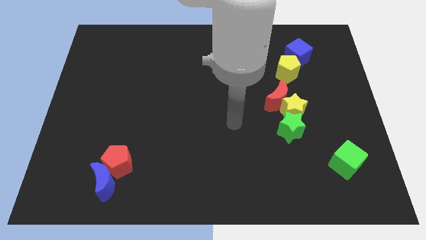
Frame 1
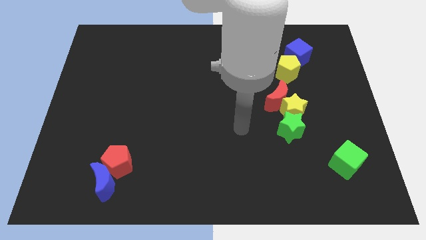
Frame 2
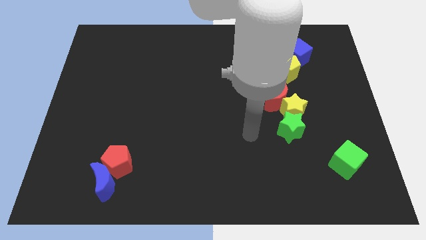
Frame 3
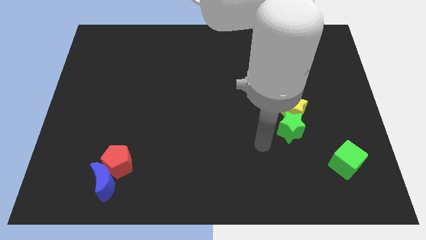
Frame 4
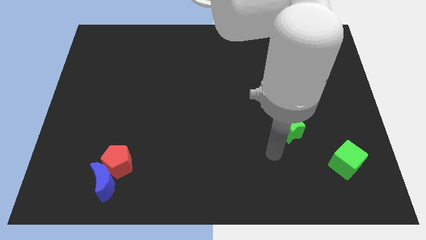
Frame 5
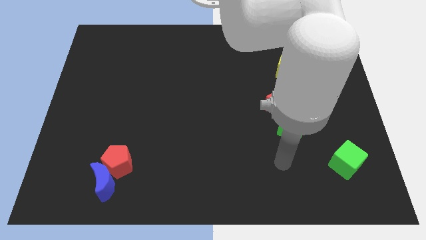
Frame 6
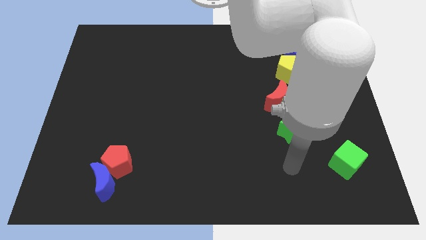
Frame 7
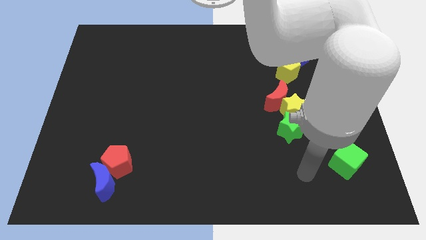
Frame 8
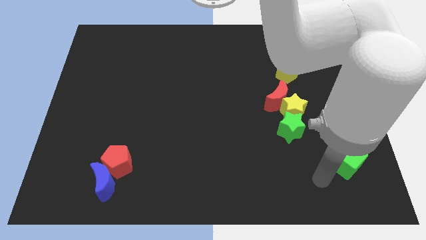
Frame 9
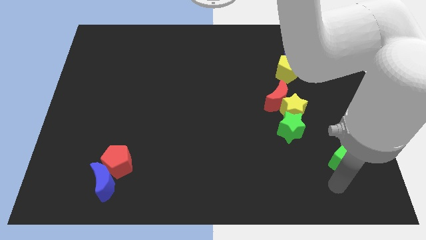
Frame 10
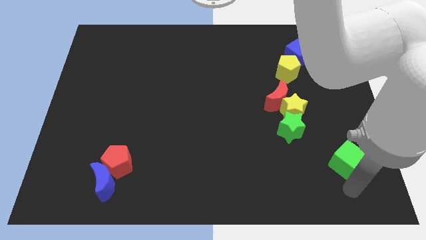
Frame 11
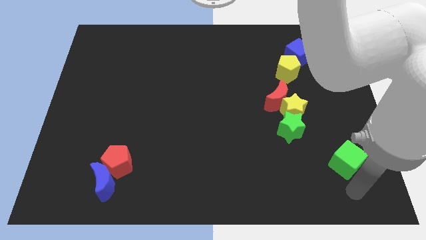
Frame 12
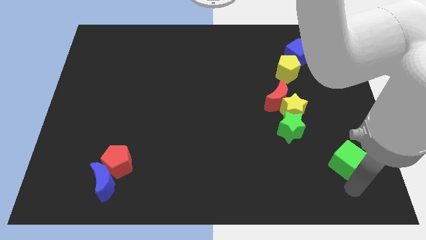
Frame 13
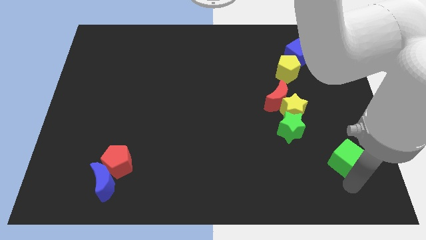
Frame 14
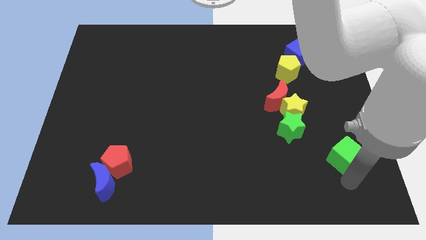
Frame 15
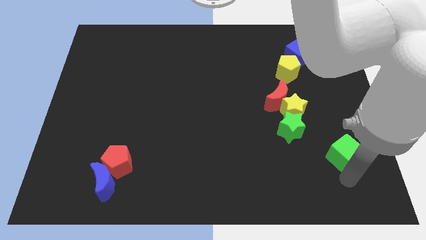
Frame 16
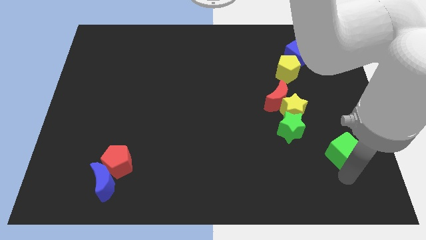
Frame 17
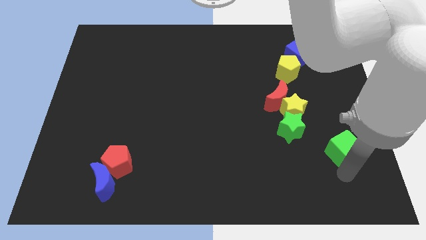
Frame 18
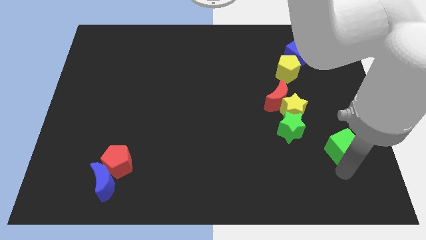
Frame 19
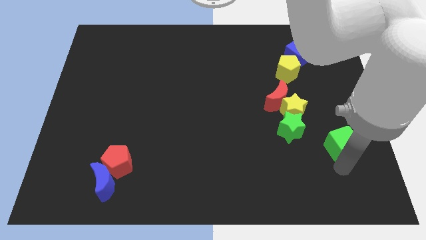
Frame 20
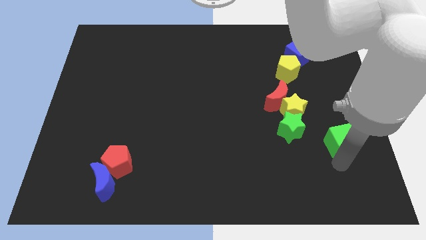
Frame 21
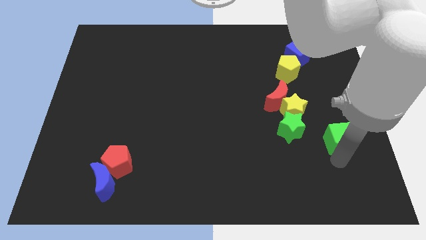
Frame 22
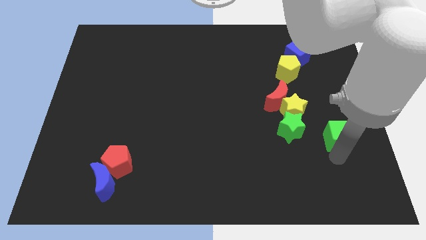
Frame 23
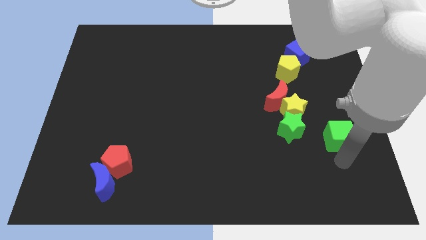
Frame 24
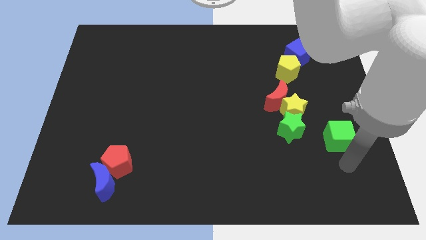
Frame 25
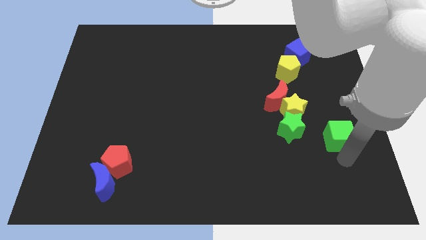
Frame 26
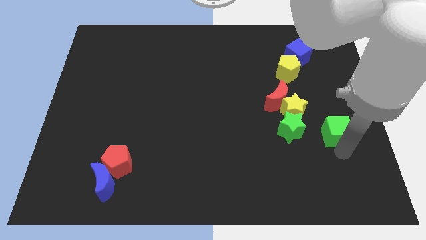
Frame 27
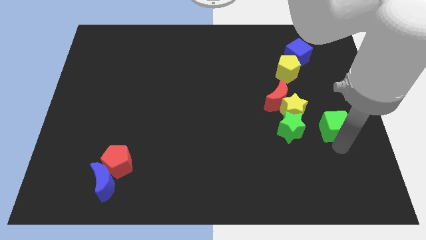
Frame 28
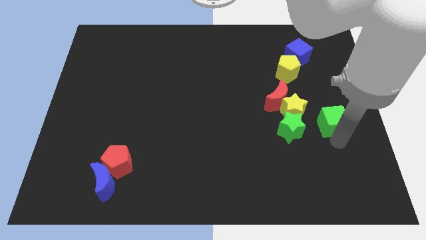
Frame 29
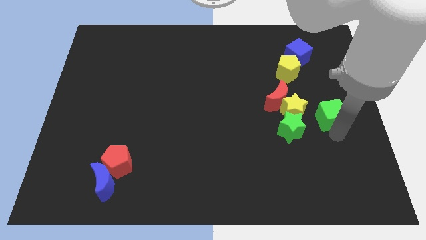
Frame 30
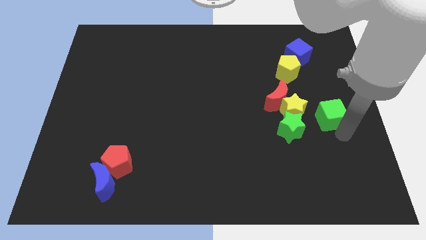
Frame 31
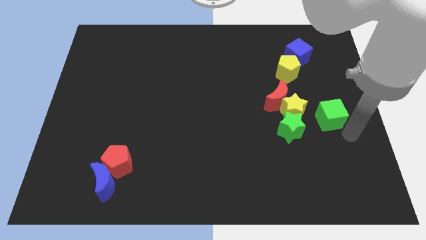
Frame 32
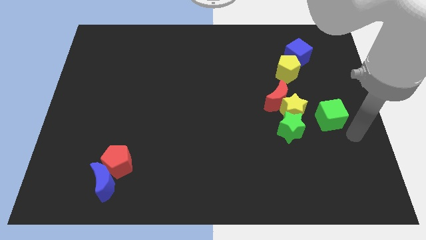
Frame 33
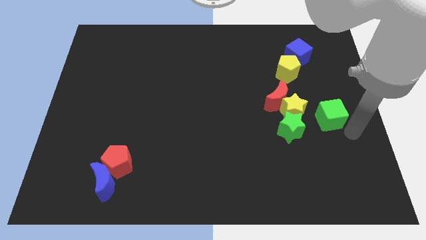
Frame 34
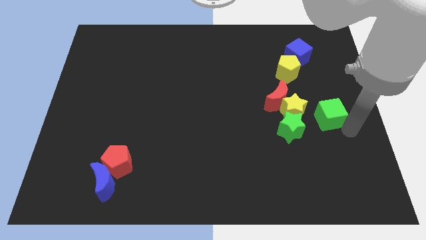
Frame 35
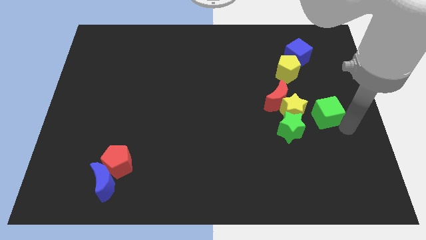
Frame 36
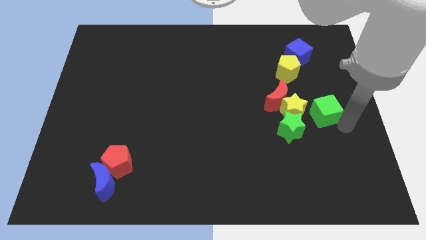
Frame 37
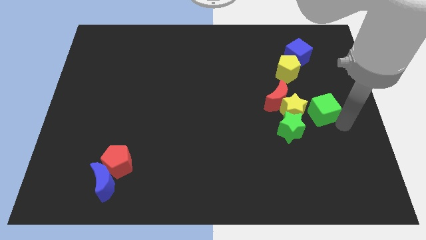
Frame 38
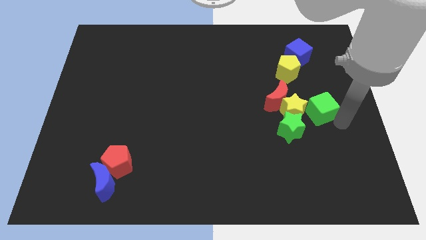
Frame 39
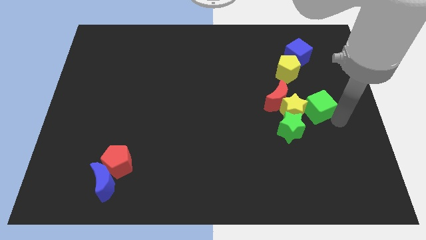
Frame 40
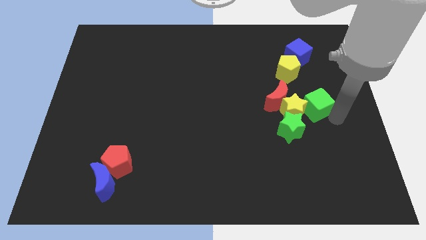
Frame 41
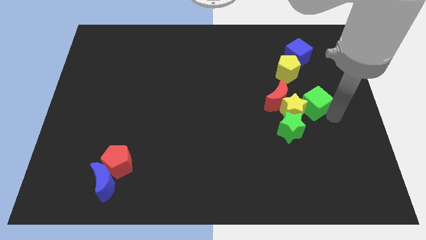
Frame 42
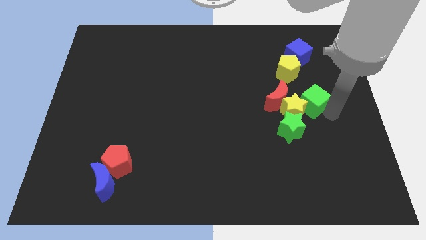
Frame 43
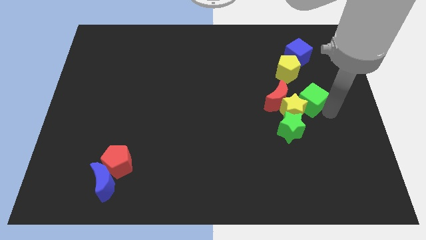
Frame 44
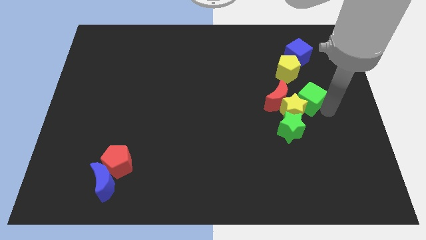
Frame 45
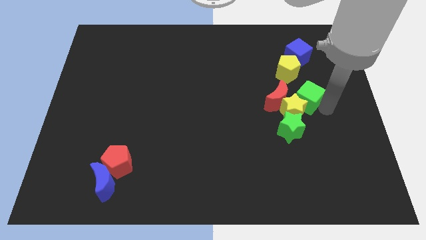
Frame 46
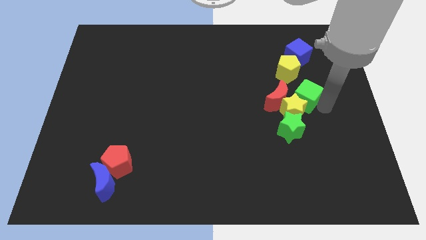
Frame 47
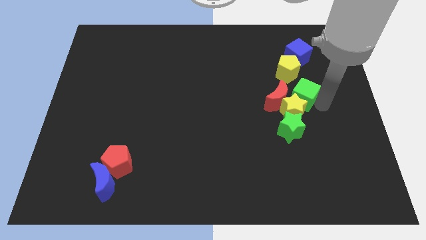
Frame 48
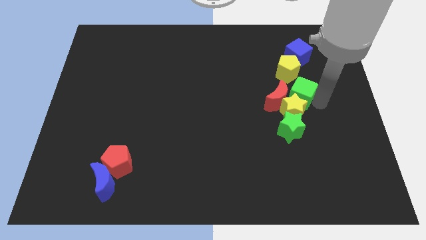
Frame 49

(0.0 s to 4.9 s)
move the green cube towards the red moon

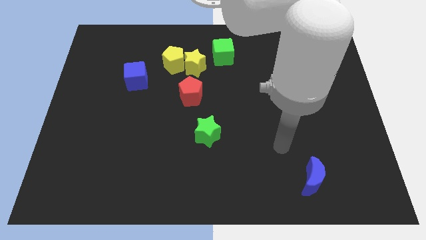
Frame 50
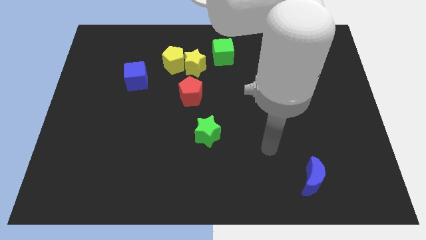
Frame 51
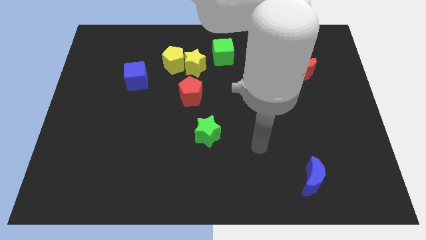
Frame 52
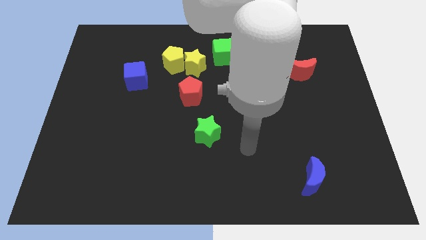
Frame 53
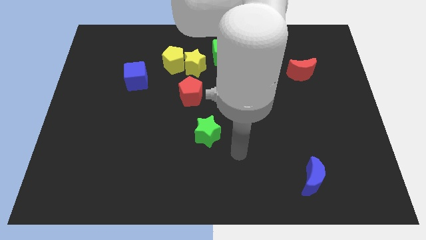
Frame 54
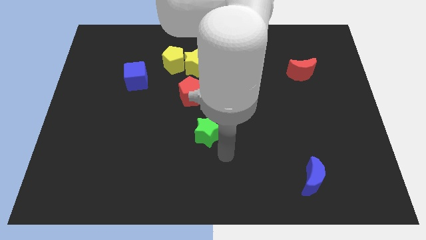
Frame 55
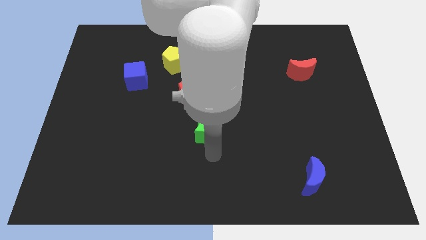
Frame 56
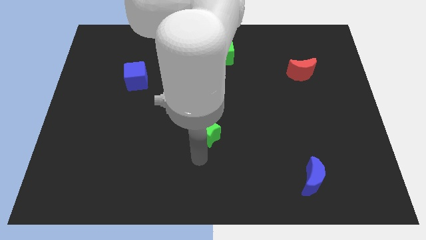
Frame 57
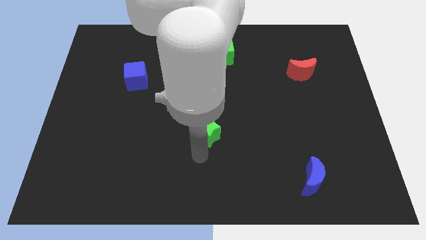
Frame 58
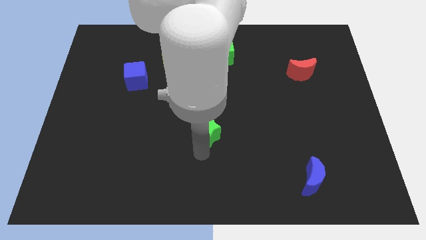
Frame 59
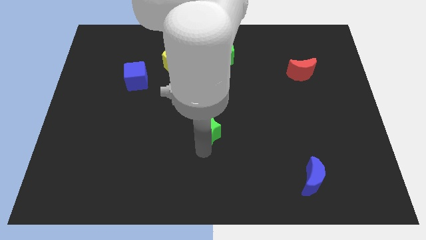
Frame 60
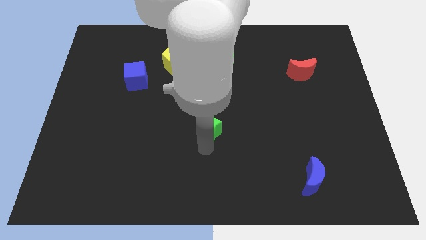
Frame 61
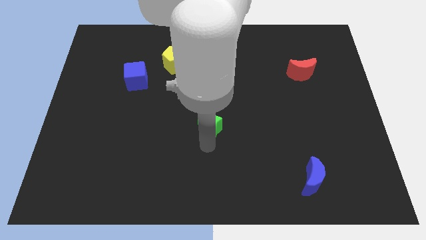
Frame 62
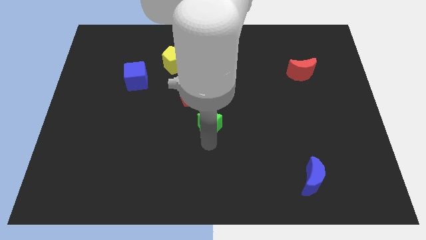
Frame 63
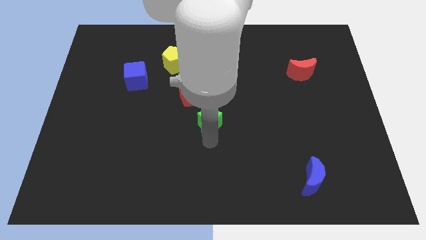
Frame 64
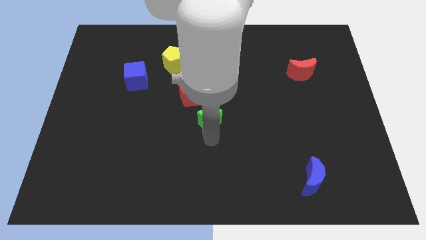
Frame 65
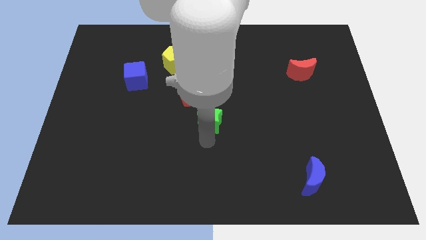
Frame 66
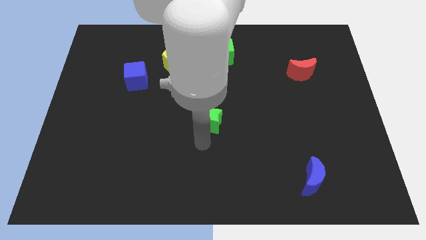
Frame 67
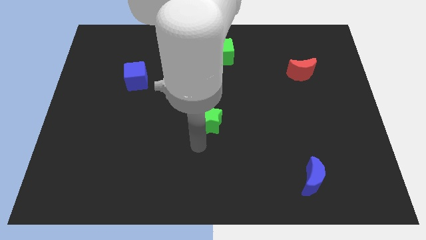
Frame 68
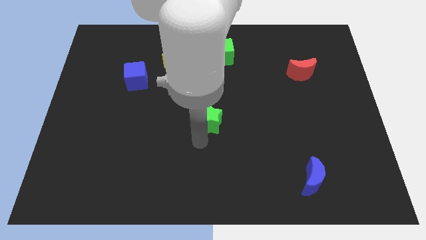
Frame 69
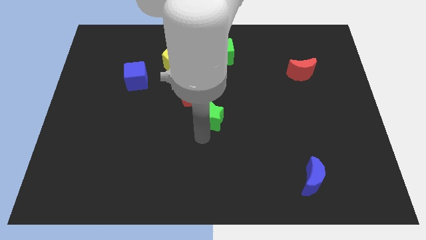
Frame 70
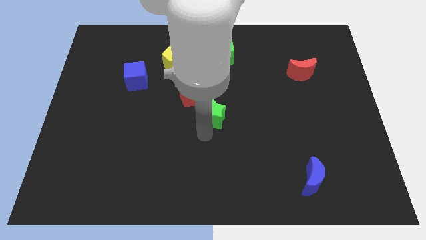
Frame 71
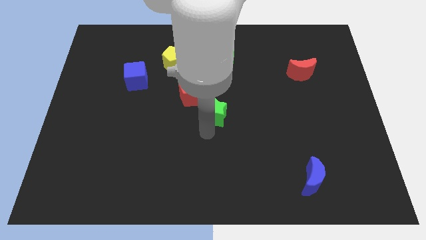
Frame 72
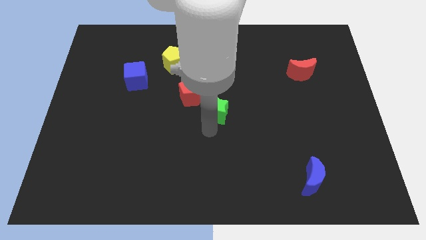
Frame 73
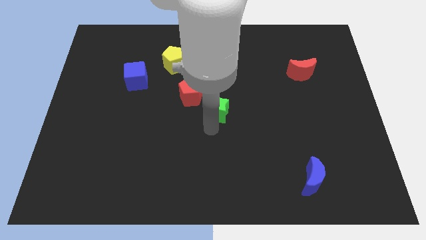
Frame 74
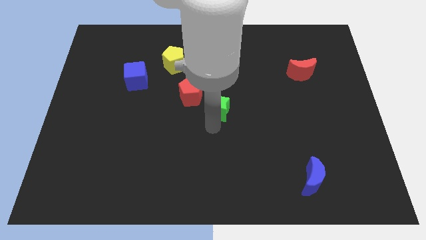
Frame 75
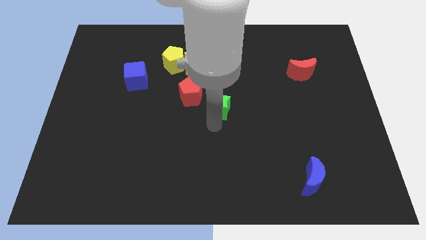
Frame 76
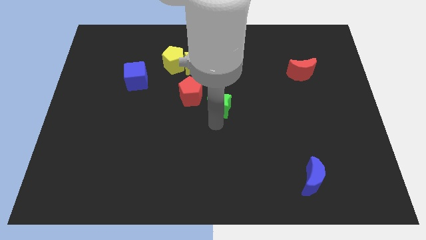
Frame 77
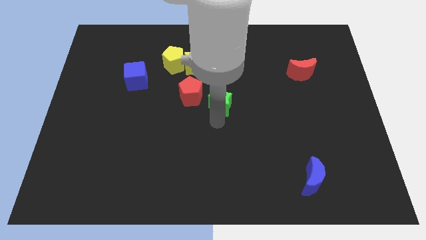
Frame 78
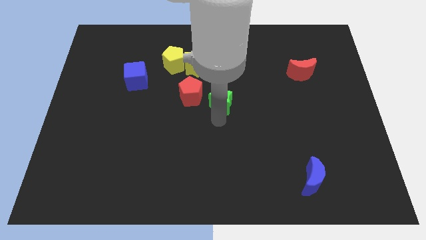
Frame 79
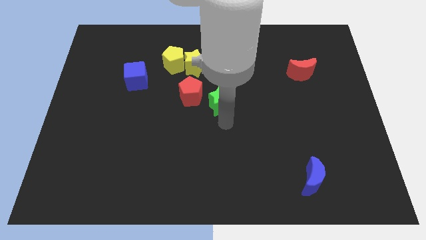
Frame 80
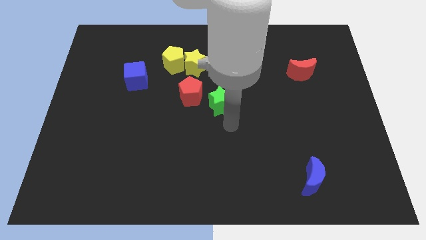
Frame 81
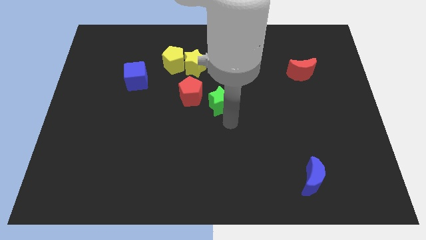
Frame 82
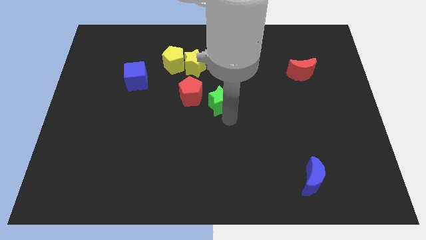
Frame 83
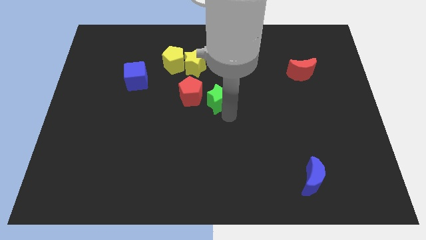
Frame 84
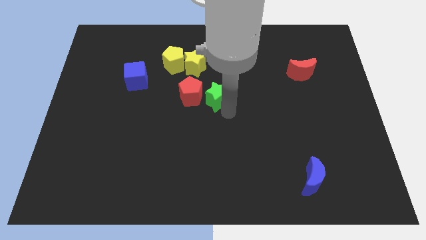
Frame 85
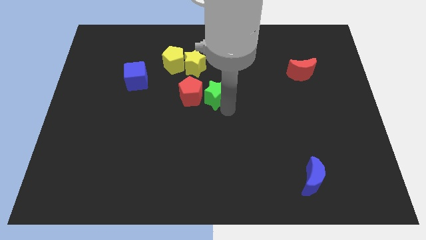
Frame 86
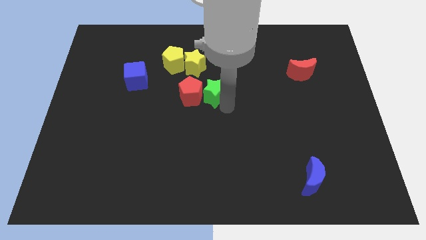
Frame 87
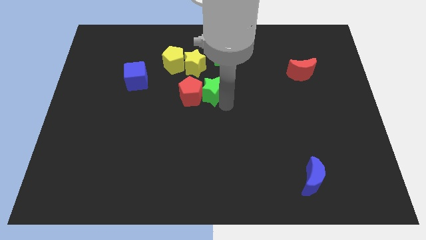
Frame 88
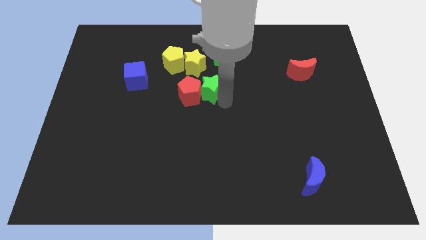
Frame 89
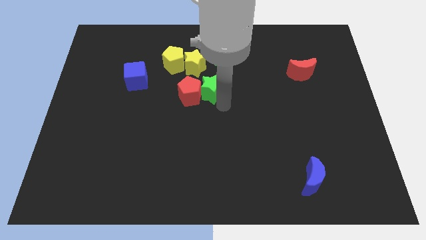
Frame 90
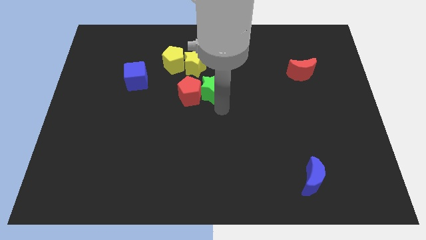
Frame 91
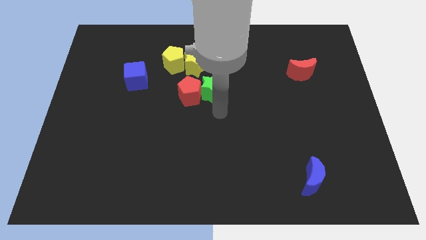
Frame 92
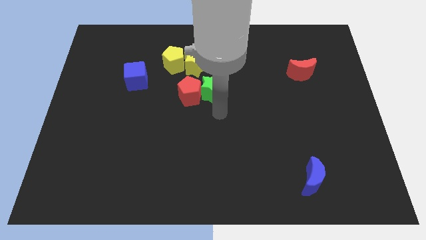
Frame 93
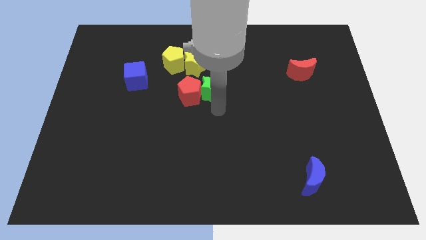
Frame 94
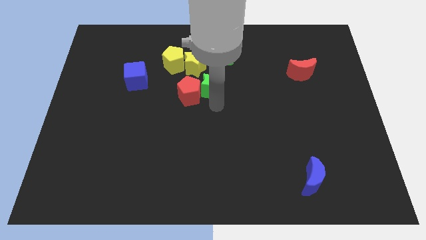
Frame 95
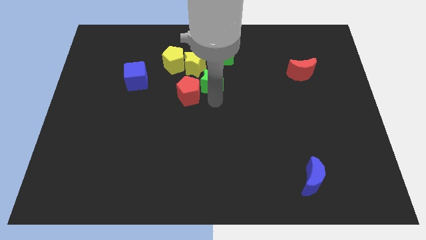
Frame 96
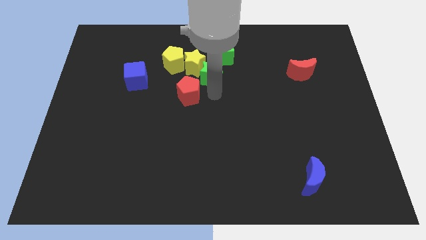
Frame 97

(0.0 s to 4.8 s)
slide the green star close to the yellow star
